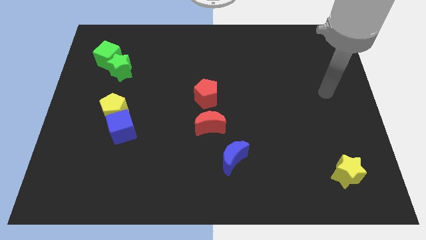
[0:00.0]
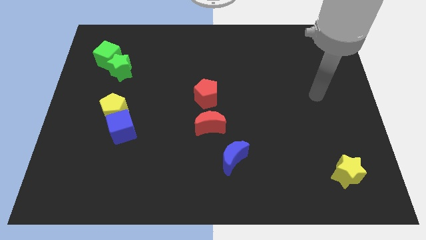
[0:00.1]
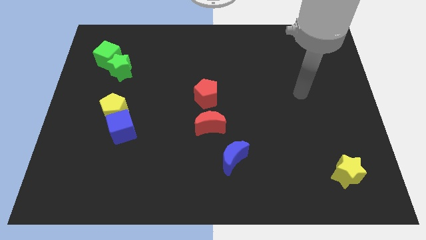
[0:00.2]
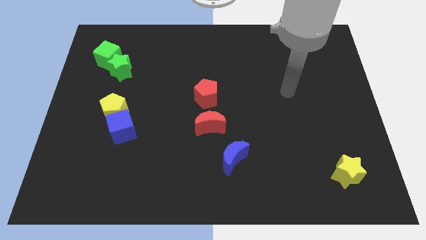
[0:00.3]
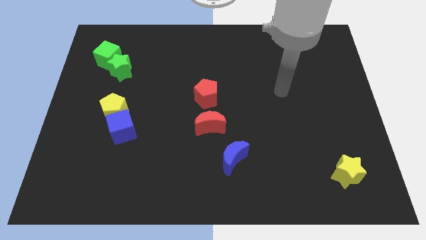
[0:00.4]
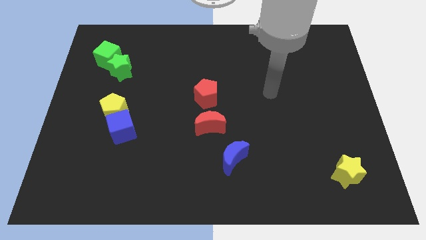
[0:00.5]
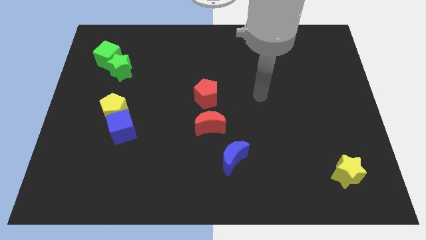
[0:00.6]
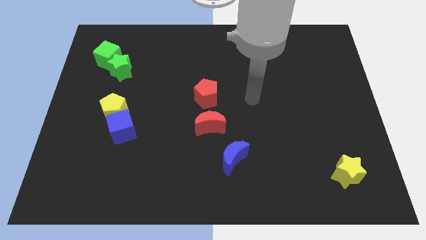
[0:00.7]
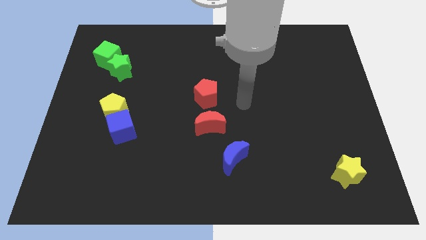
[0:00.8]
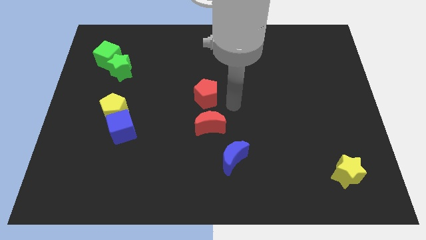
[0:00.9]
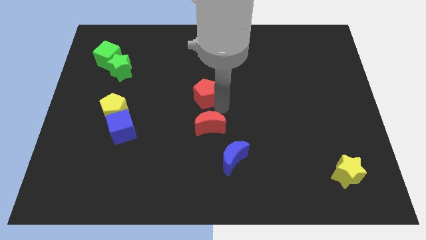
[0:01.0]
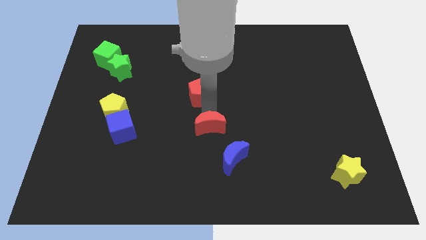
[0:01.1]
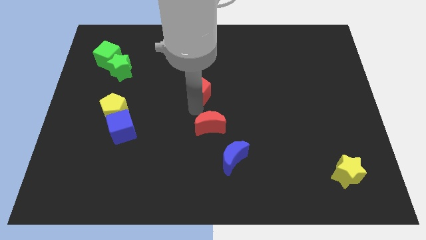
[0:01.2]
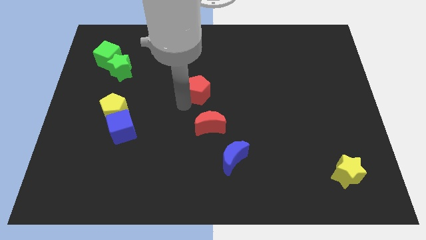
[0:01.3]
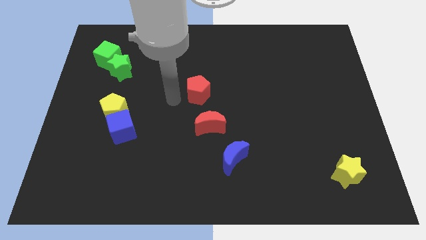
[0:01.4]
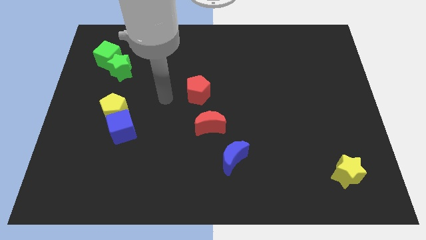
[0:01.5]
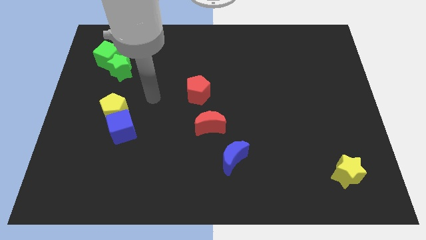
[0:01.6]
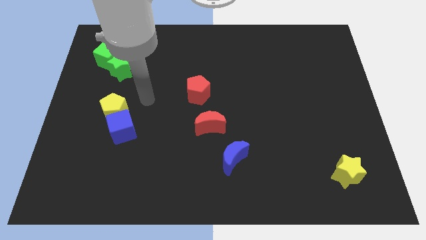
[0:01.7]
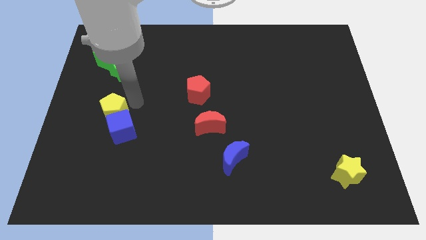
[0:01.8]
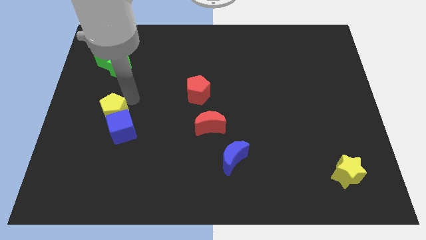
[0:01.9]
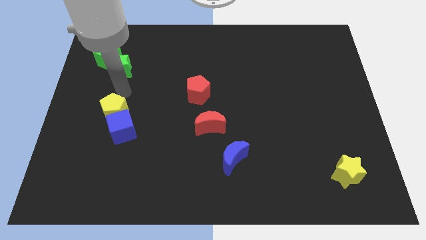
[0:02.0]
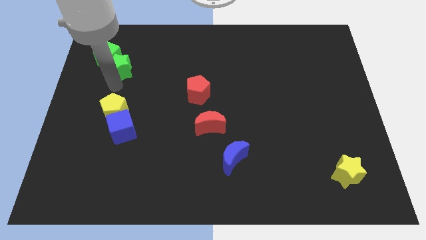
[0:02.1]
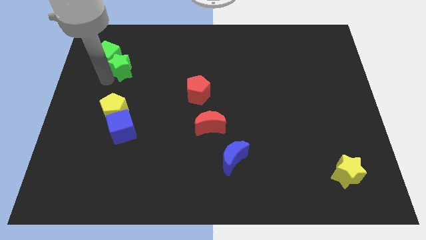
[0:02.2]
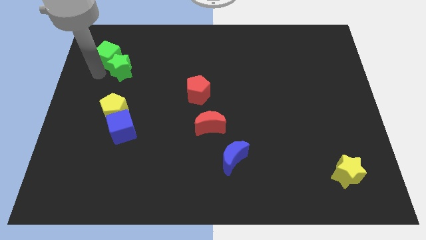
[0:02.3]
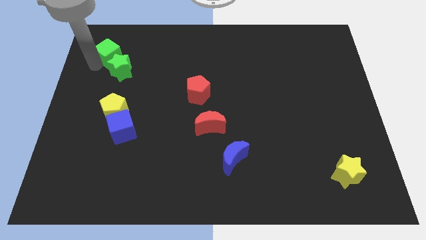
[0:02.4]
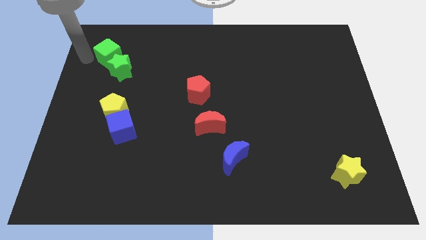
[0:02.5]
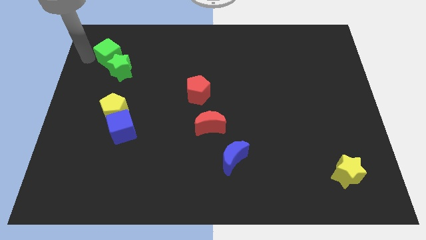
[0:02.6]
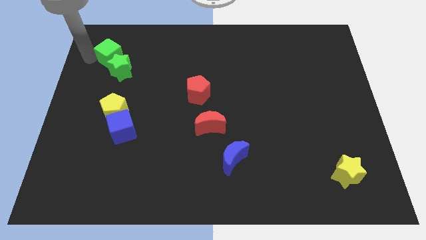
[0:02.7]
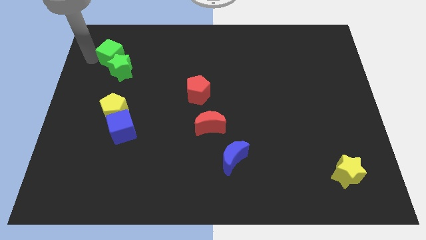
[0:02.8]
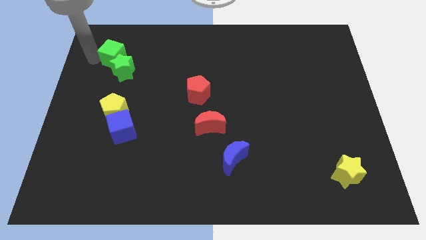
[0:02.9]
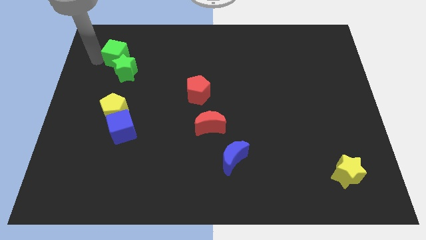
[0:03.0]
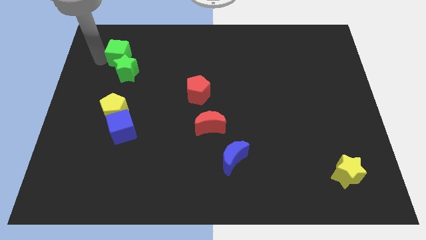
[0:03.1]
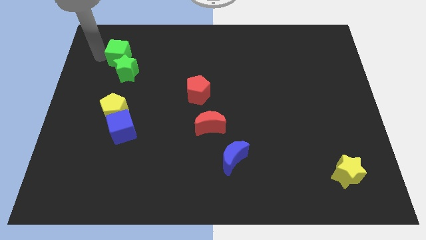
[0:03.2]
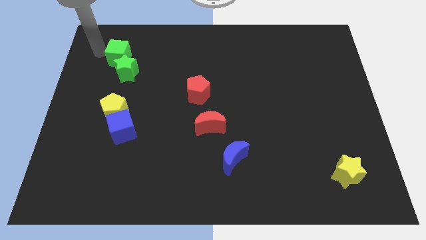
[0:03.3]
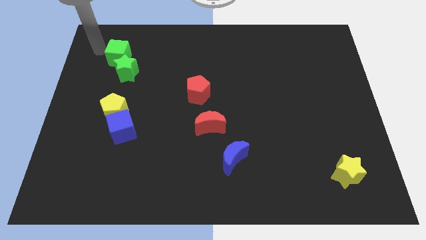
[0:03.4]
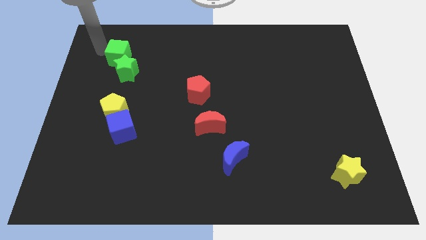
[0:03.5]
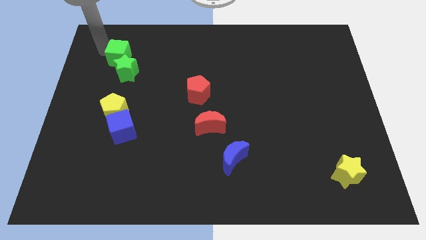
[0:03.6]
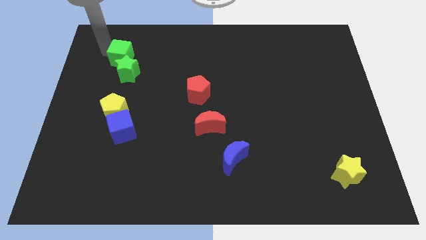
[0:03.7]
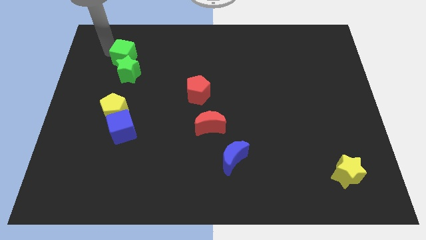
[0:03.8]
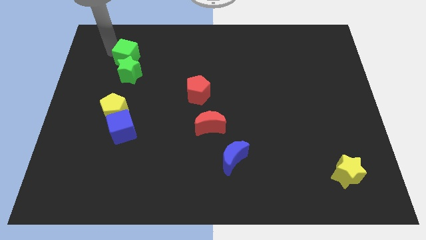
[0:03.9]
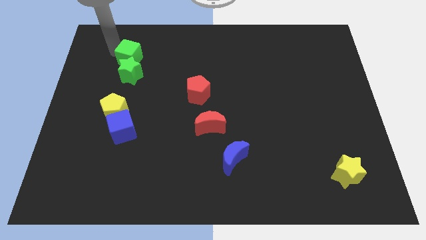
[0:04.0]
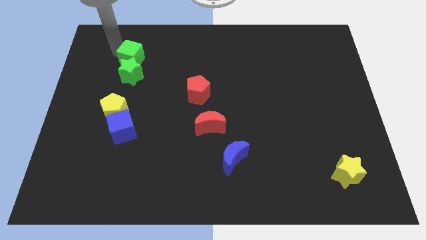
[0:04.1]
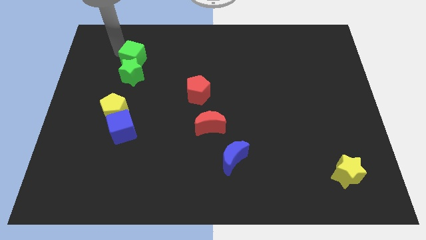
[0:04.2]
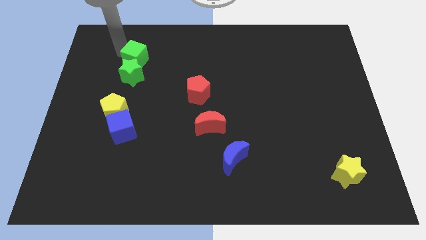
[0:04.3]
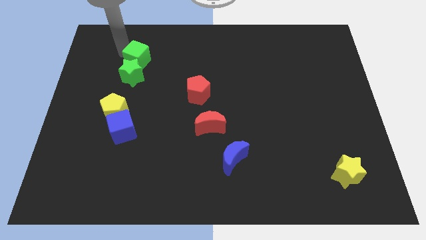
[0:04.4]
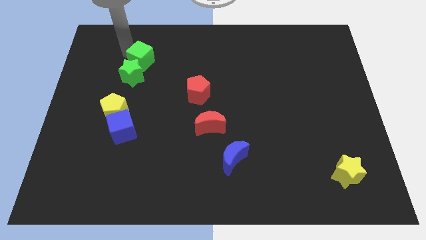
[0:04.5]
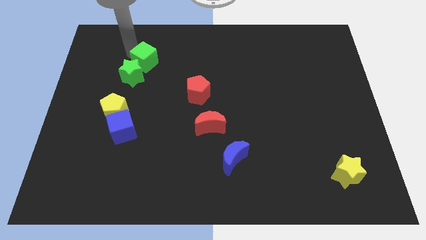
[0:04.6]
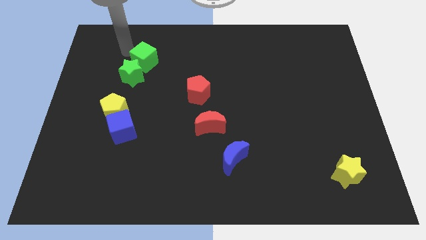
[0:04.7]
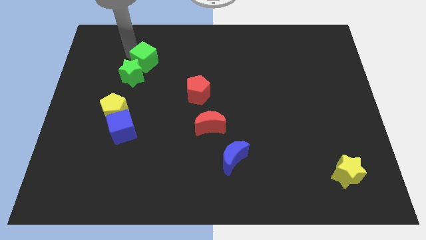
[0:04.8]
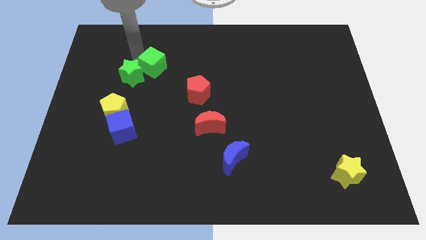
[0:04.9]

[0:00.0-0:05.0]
push the green cube to the right of the green star

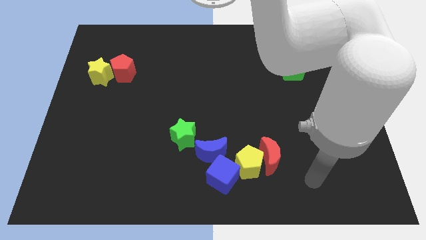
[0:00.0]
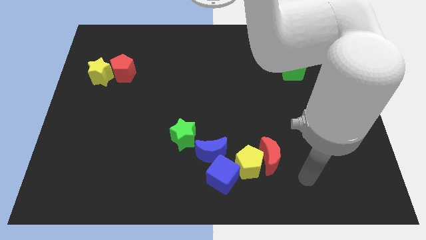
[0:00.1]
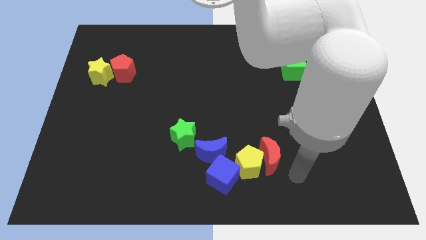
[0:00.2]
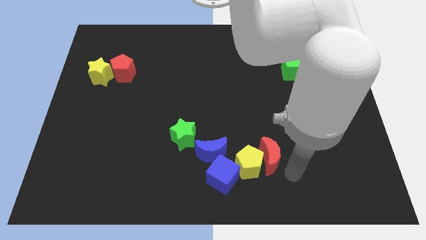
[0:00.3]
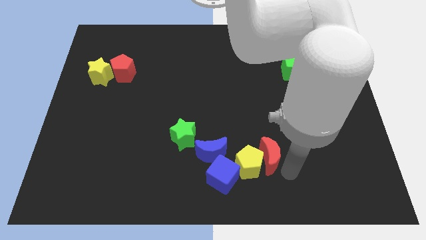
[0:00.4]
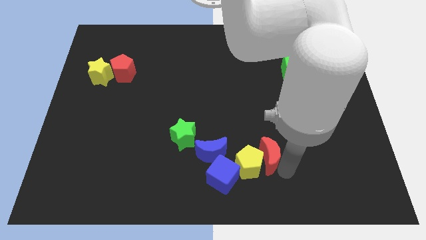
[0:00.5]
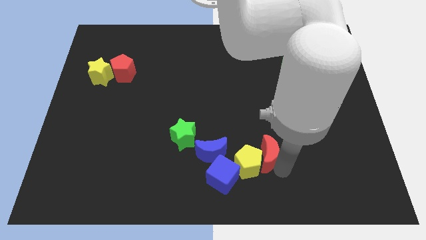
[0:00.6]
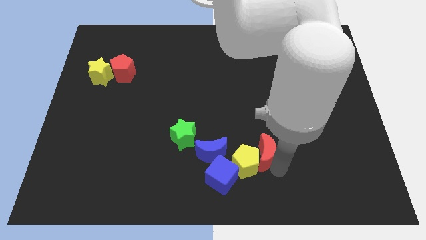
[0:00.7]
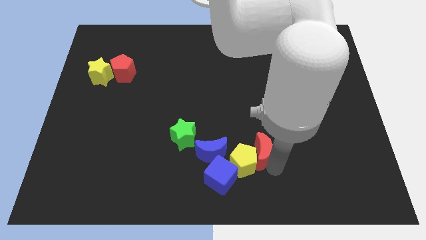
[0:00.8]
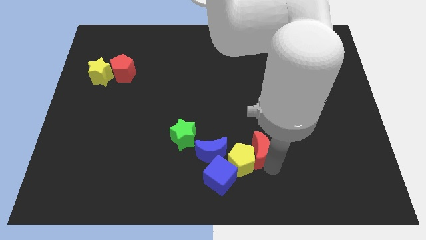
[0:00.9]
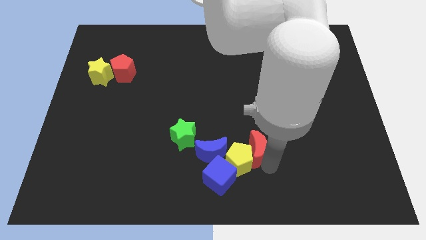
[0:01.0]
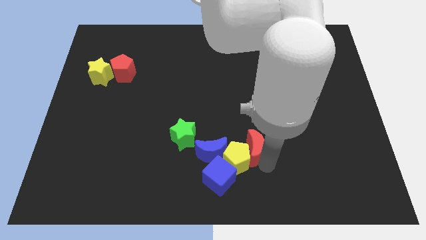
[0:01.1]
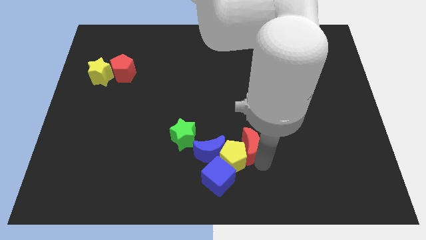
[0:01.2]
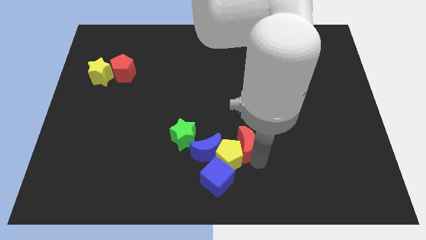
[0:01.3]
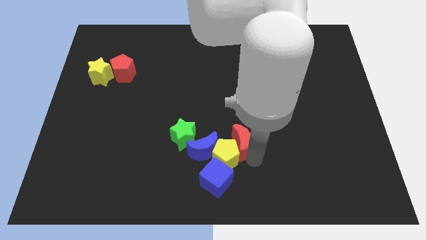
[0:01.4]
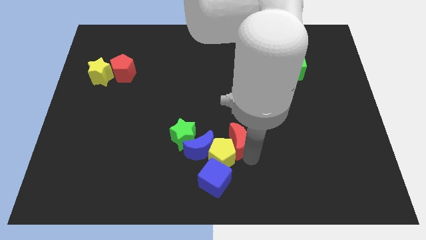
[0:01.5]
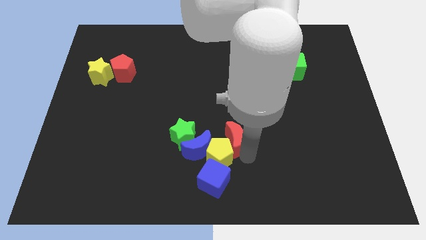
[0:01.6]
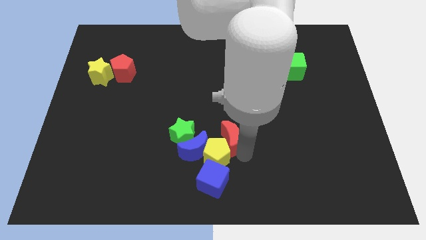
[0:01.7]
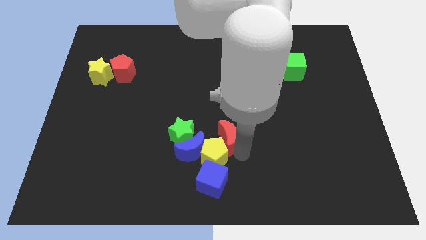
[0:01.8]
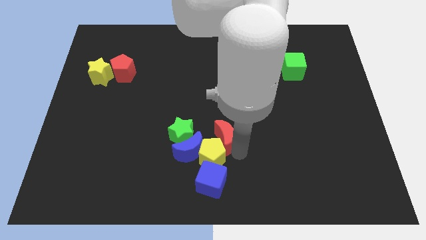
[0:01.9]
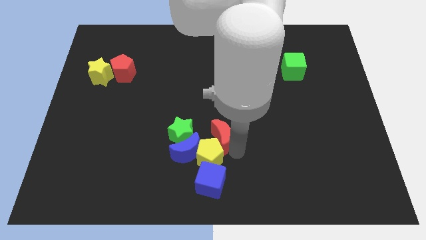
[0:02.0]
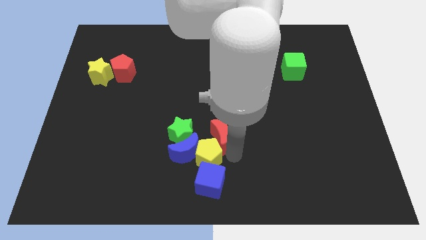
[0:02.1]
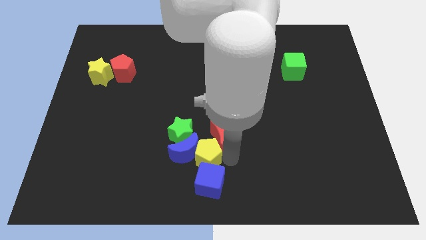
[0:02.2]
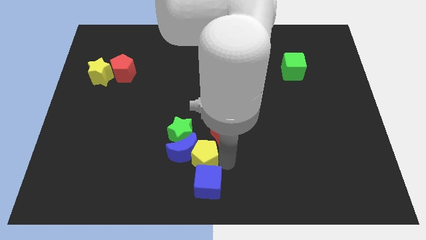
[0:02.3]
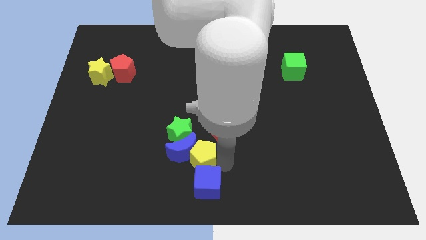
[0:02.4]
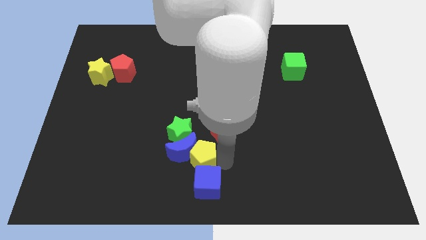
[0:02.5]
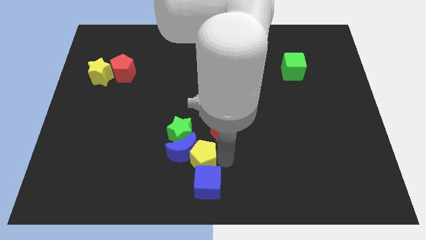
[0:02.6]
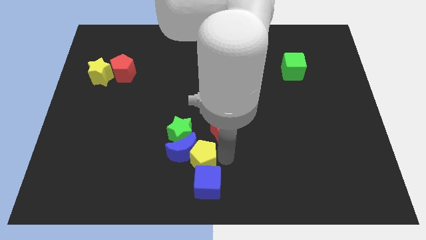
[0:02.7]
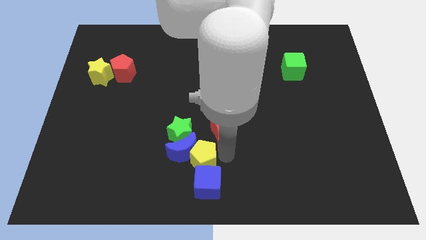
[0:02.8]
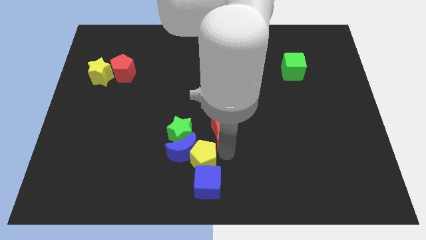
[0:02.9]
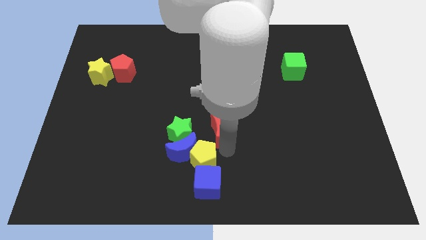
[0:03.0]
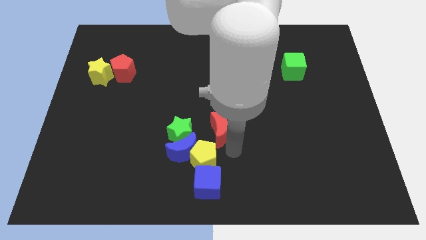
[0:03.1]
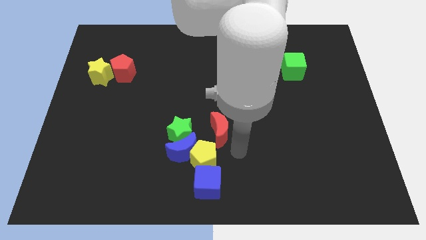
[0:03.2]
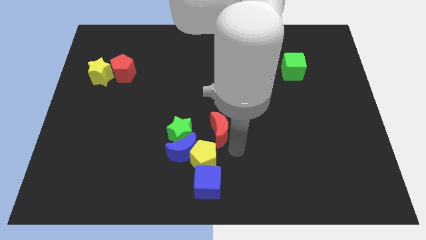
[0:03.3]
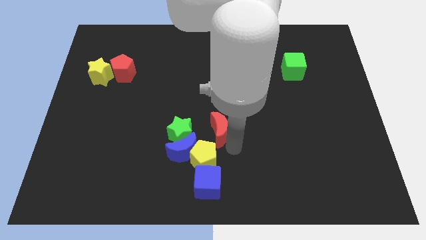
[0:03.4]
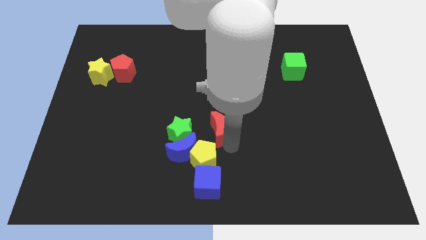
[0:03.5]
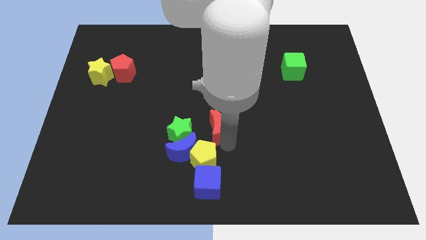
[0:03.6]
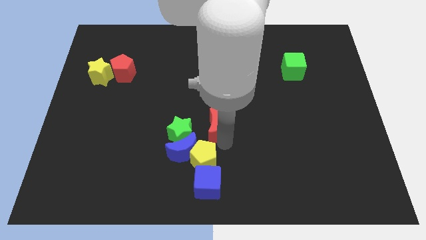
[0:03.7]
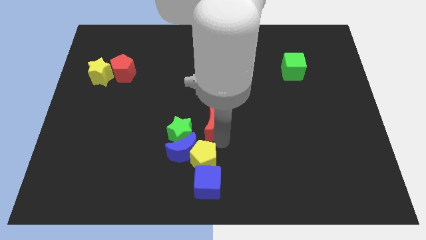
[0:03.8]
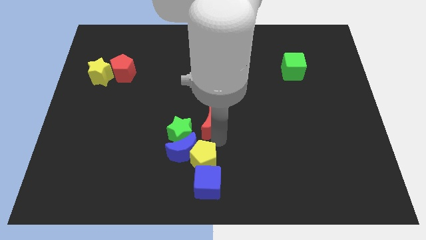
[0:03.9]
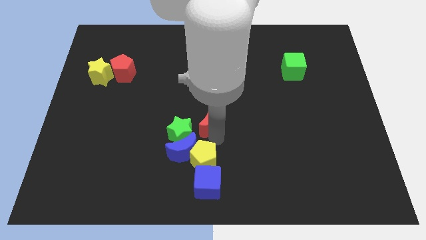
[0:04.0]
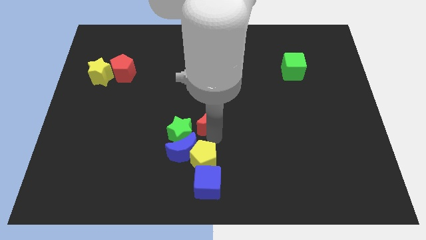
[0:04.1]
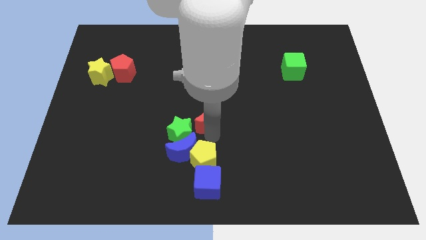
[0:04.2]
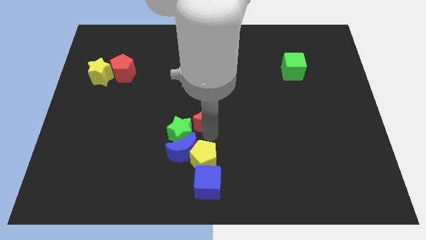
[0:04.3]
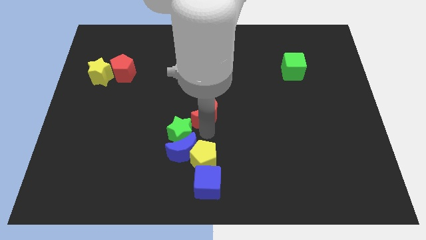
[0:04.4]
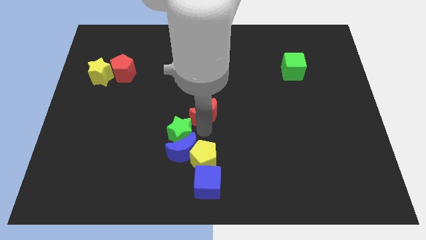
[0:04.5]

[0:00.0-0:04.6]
move the red moon to the top side of the green star
